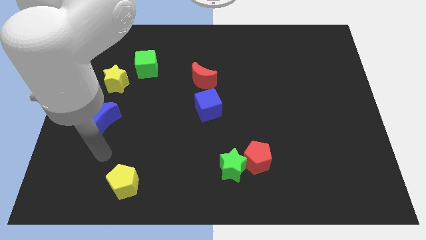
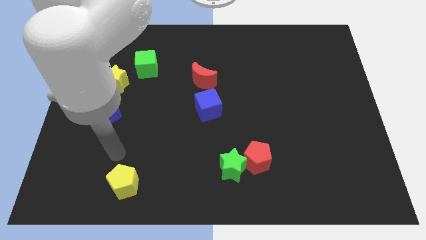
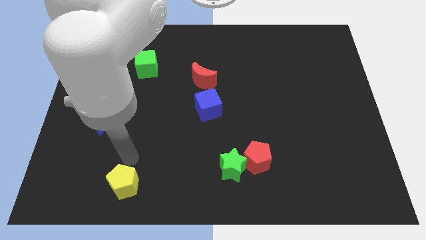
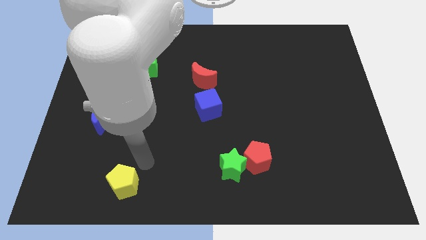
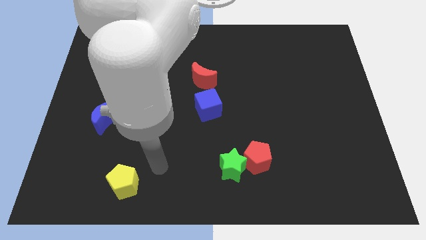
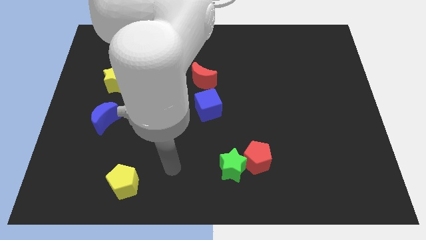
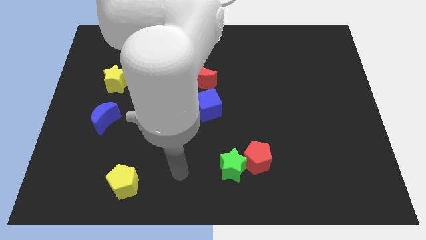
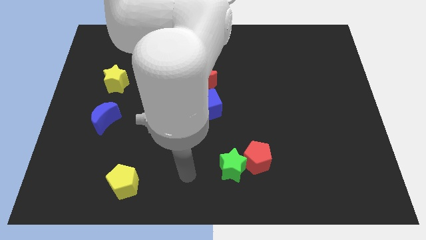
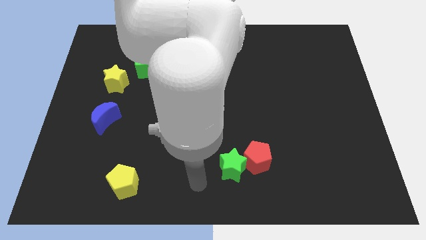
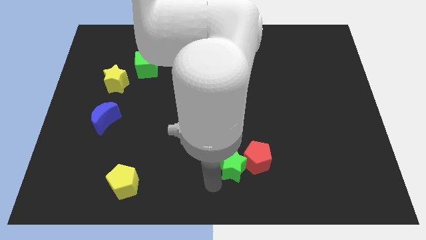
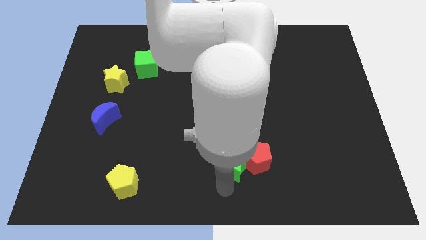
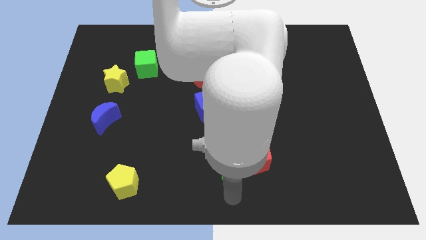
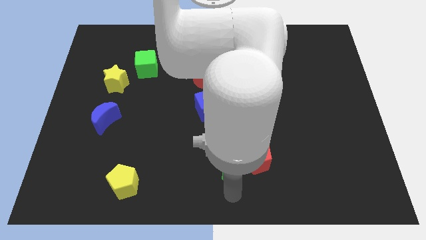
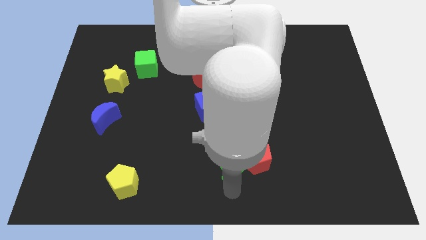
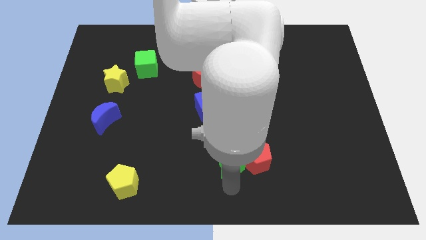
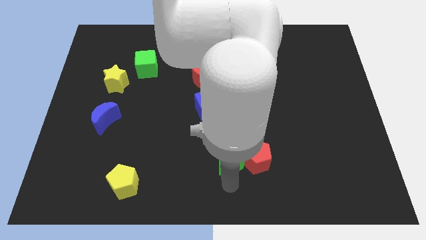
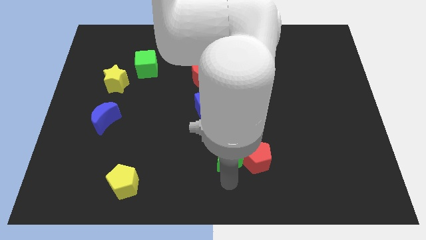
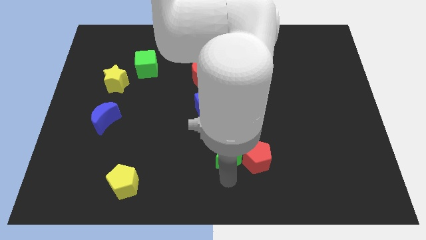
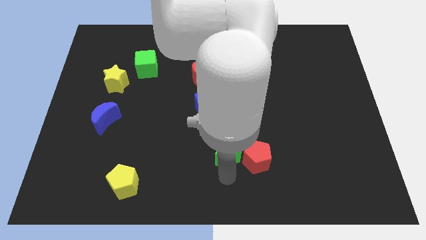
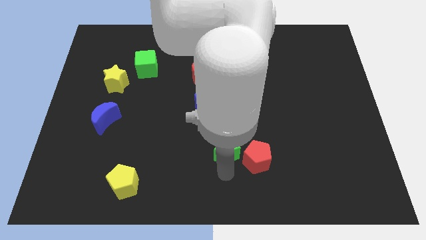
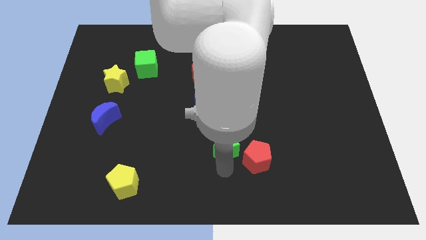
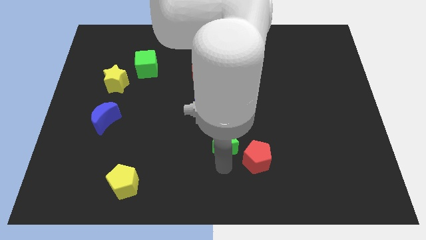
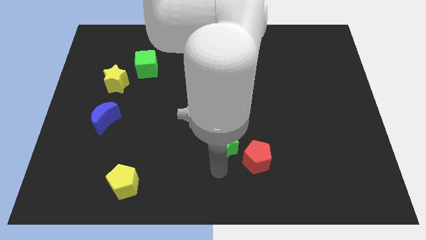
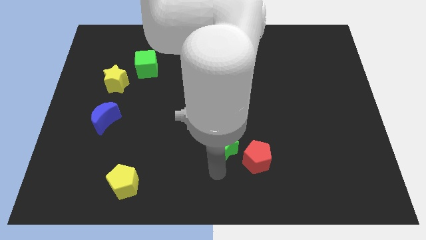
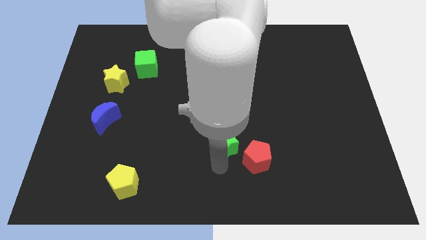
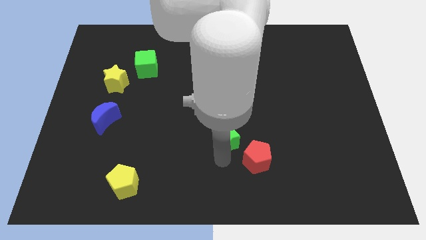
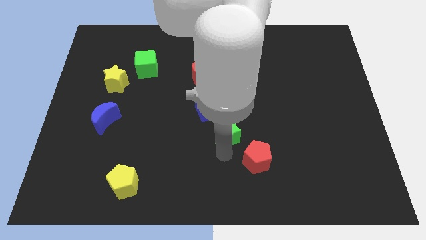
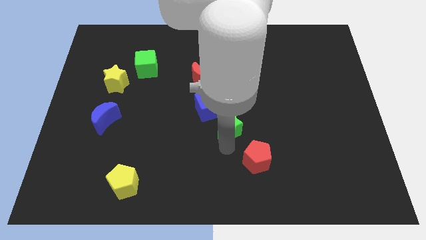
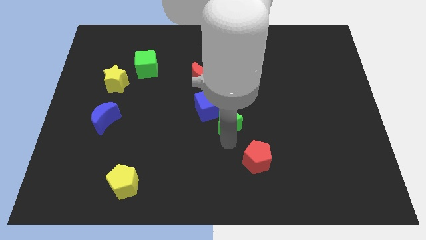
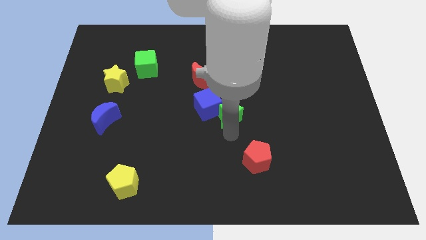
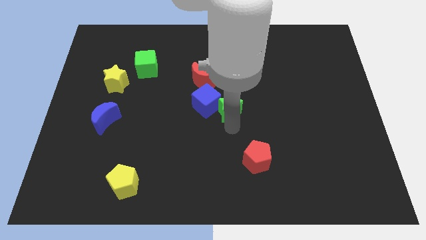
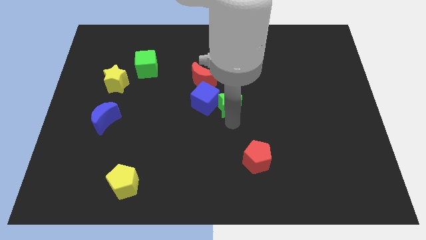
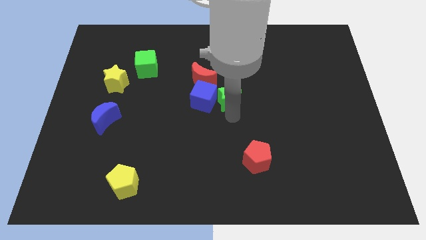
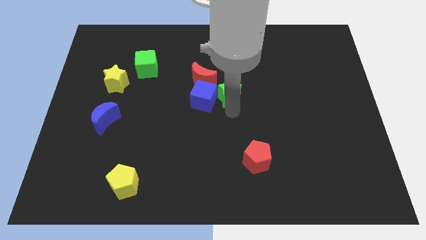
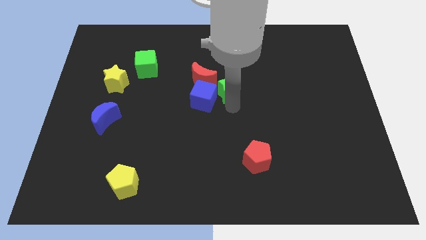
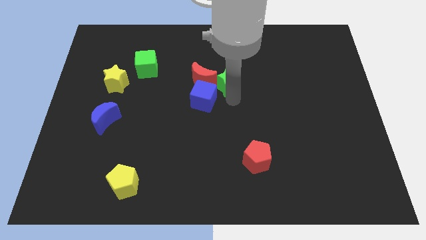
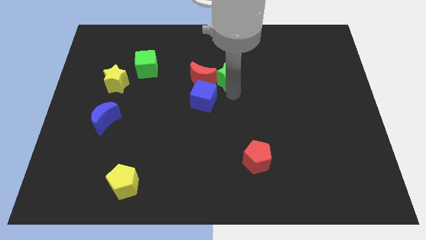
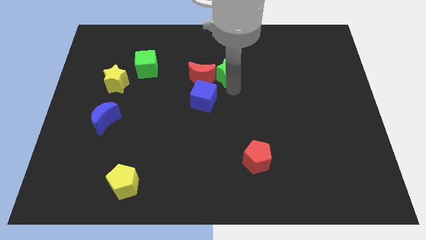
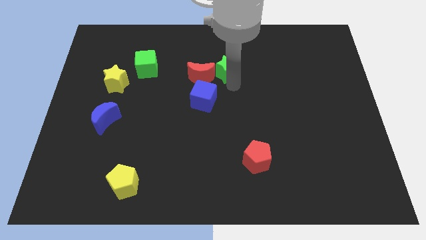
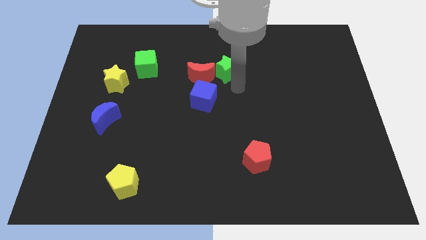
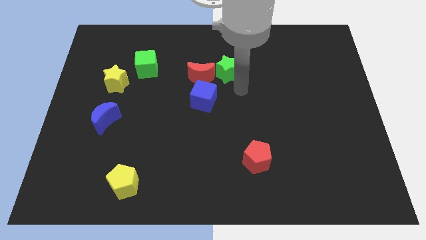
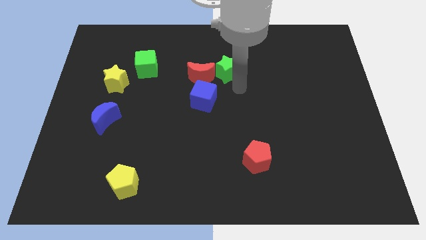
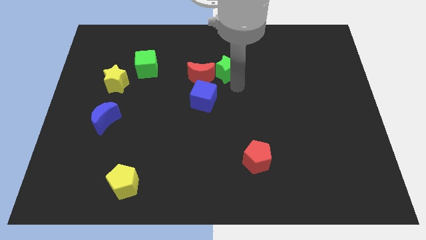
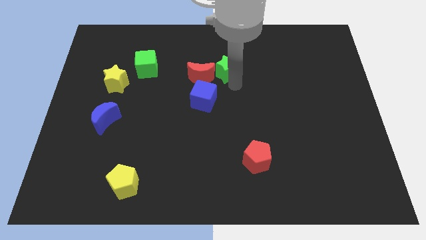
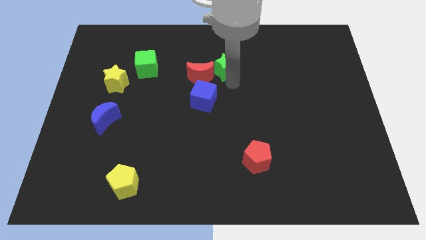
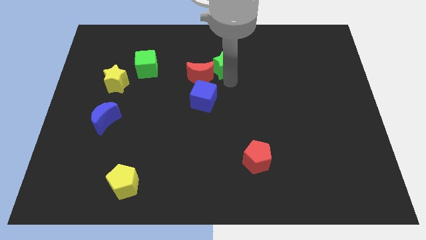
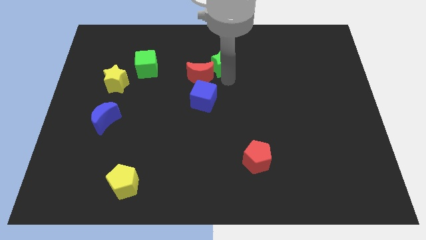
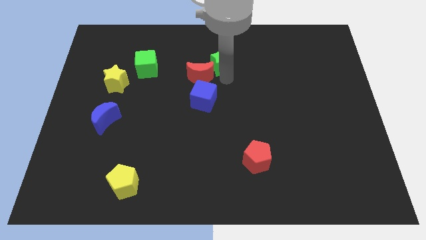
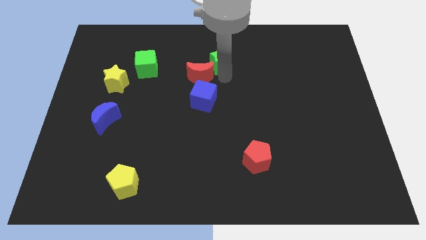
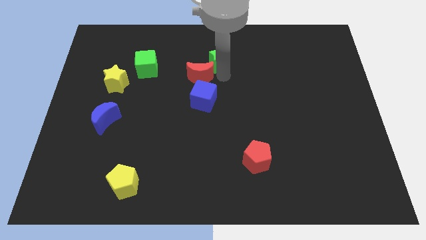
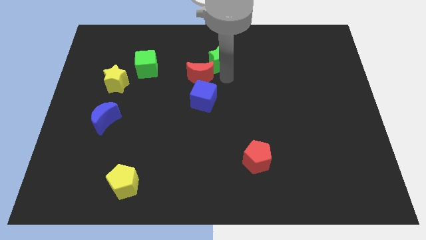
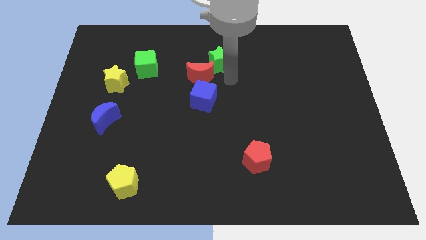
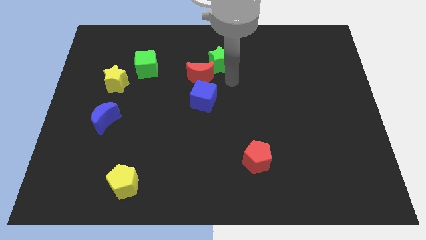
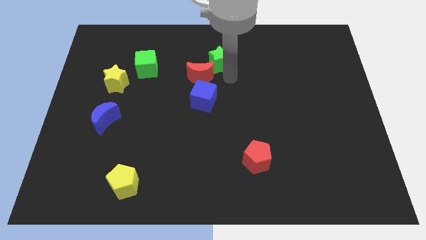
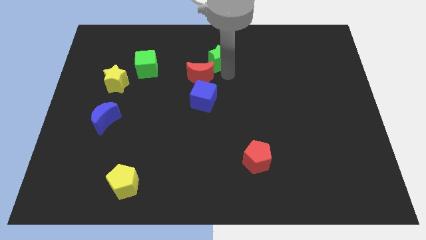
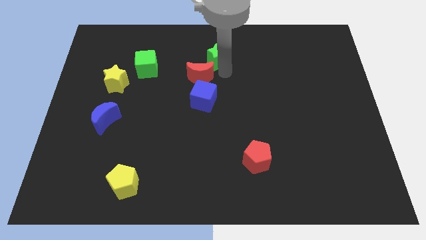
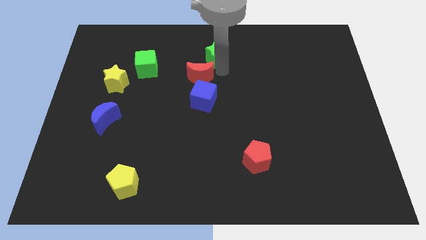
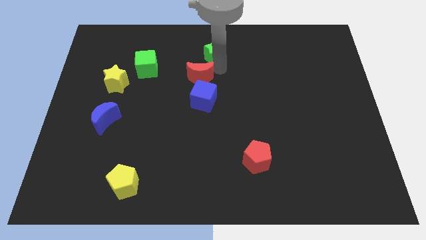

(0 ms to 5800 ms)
slide the green star to the top

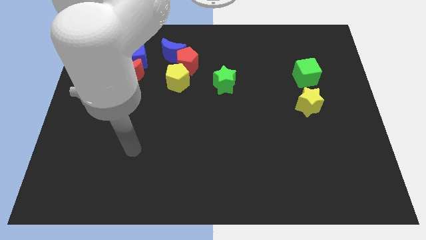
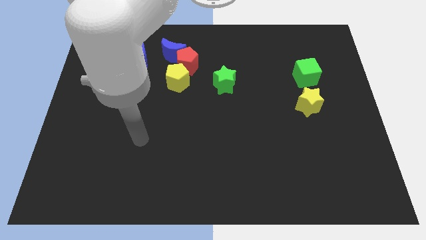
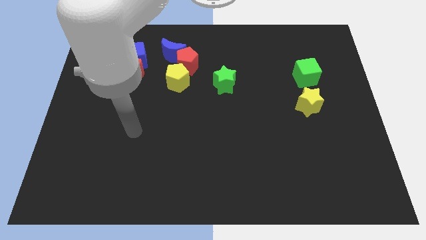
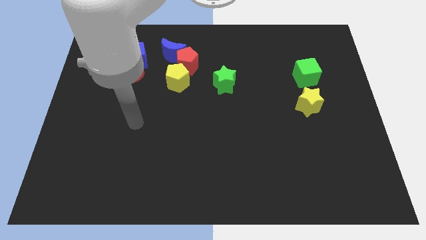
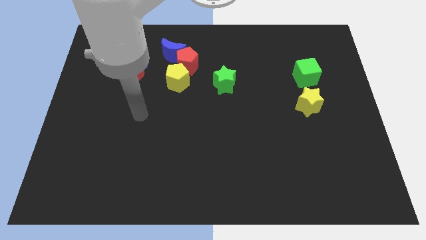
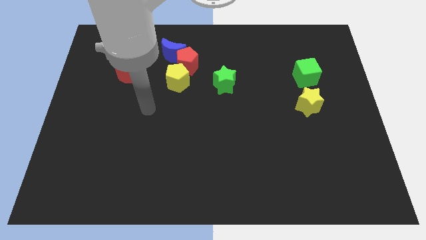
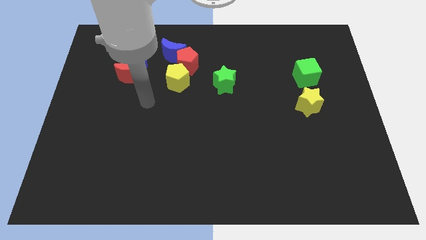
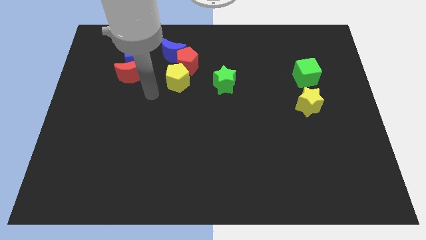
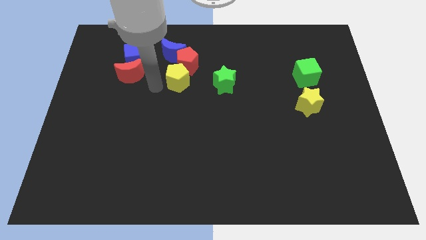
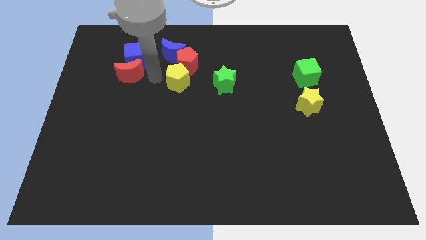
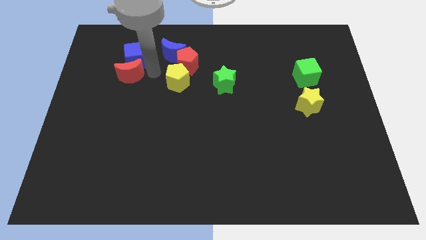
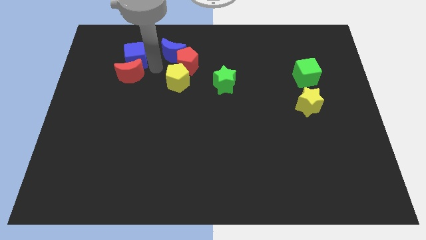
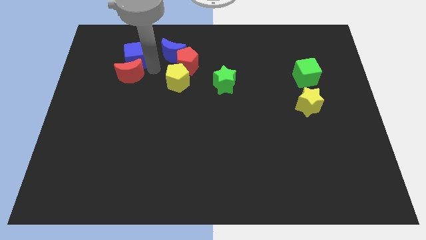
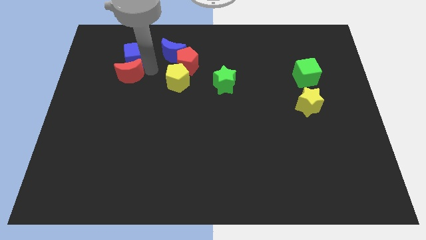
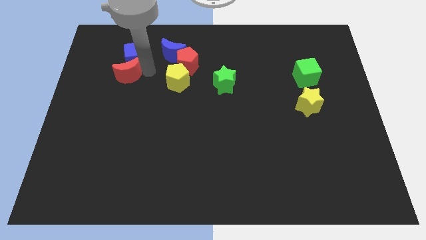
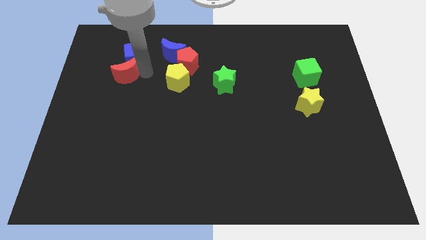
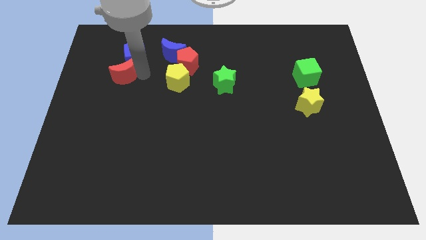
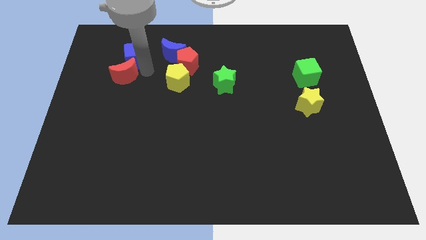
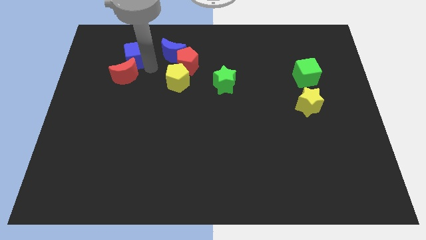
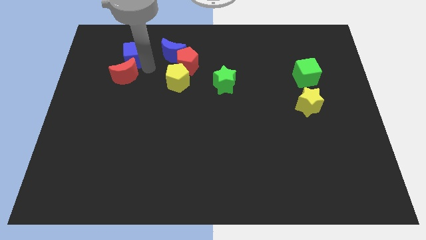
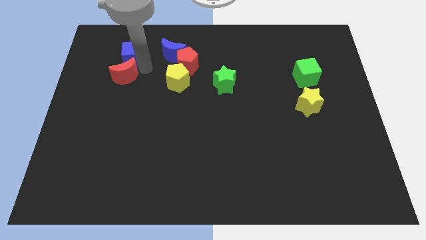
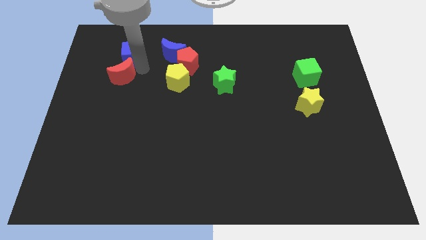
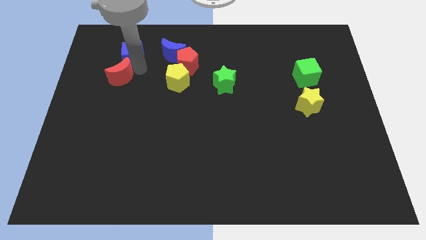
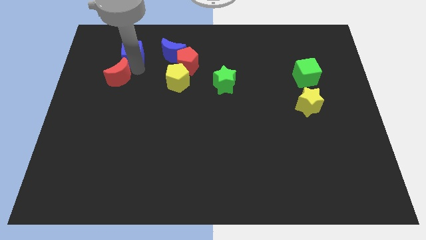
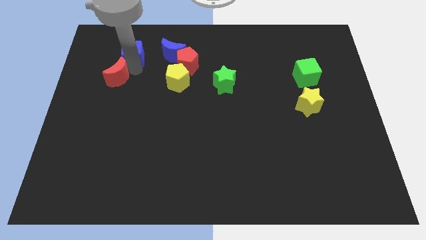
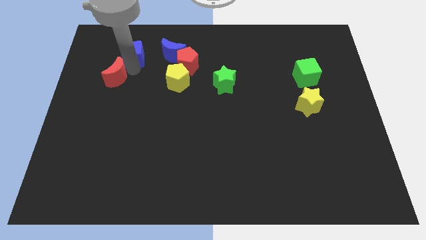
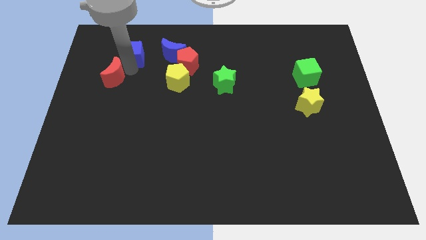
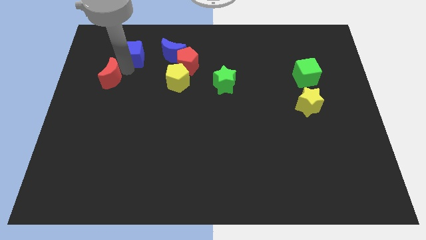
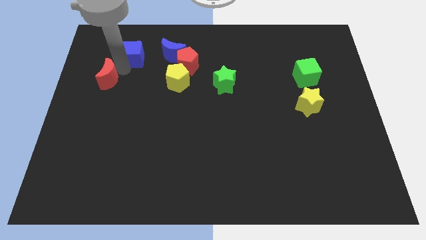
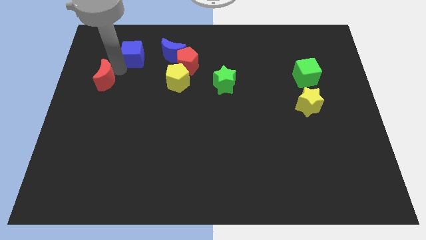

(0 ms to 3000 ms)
push the red moon to the left side
